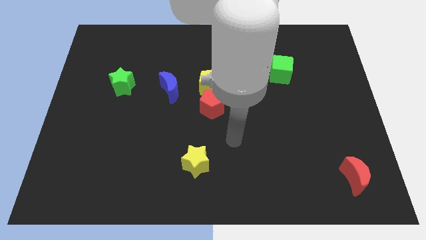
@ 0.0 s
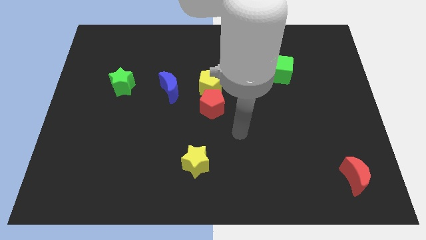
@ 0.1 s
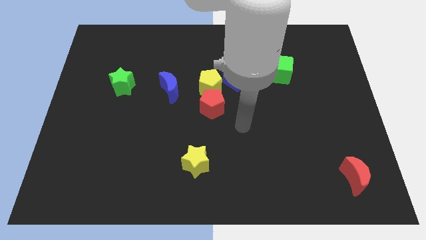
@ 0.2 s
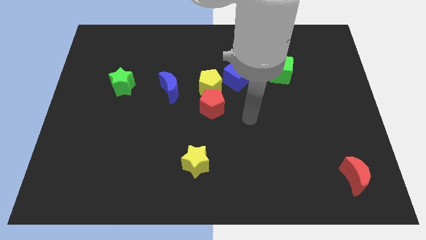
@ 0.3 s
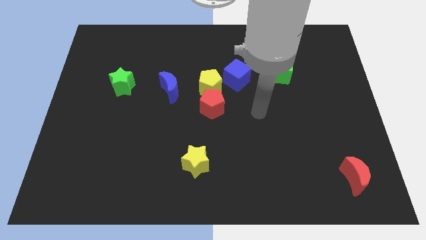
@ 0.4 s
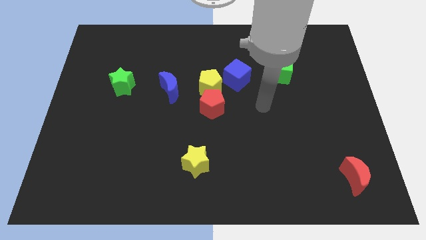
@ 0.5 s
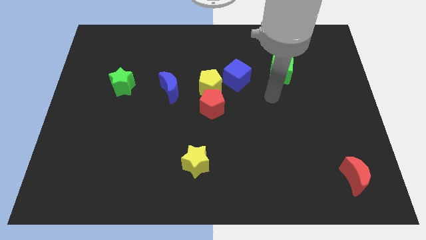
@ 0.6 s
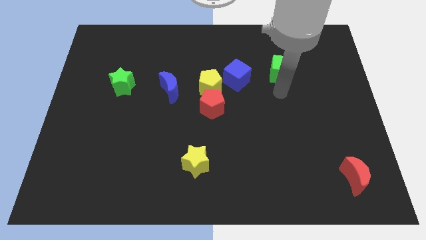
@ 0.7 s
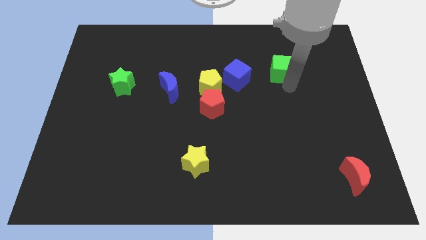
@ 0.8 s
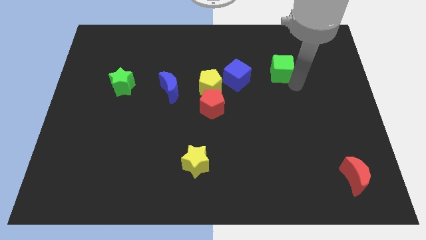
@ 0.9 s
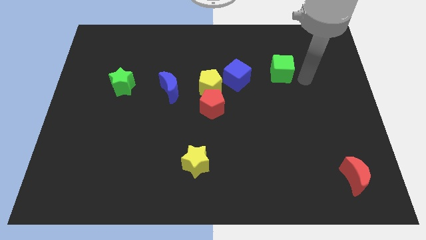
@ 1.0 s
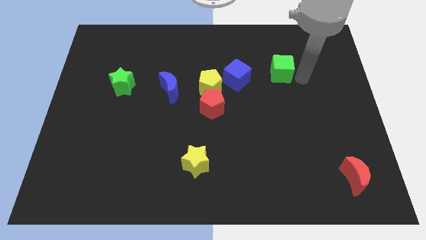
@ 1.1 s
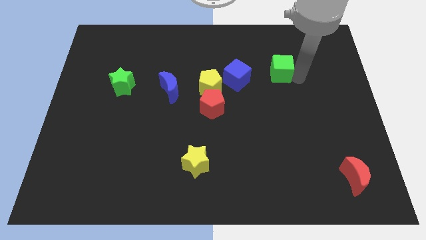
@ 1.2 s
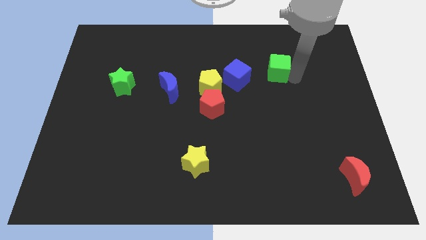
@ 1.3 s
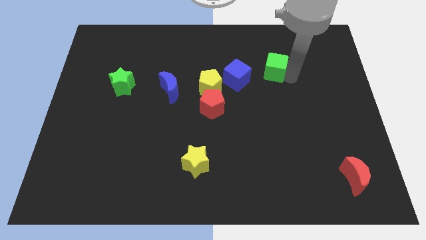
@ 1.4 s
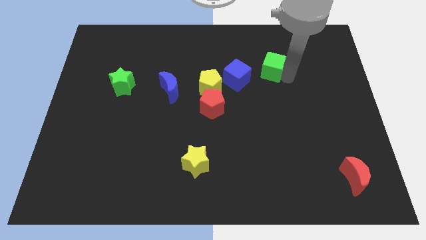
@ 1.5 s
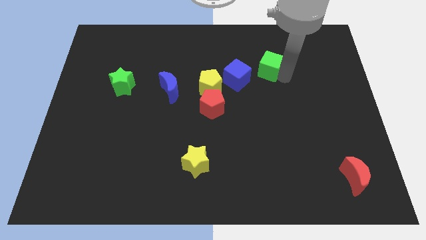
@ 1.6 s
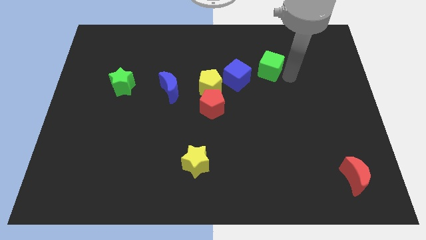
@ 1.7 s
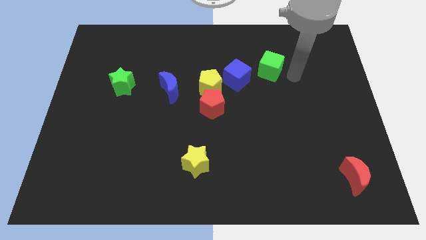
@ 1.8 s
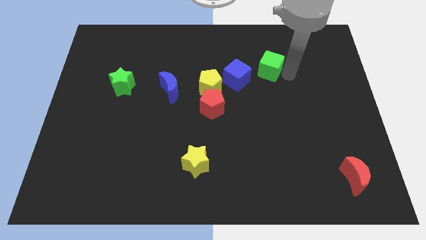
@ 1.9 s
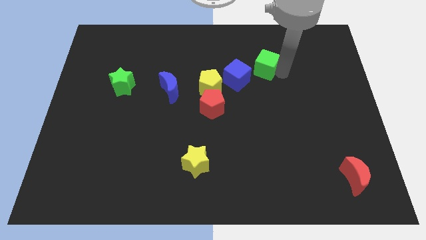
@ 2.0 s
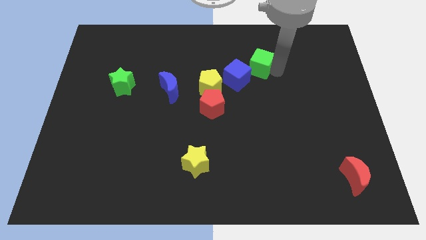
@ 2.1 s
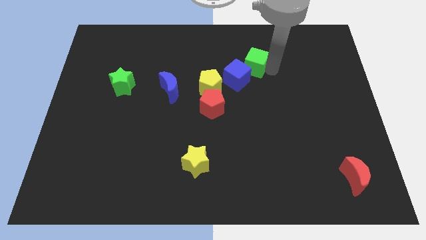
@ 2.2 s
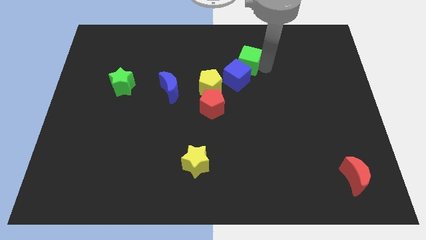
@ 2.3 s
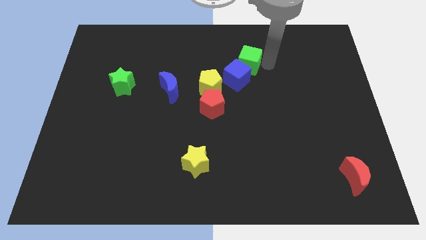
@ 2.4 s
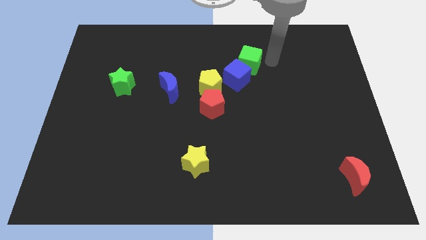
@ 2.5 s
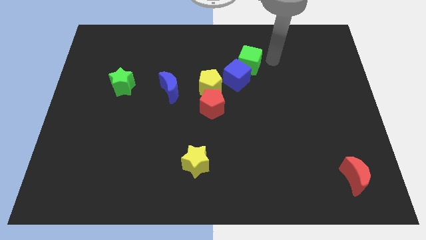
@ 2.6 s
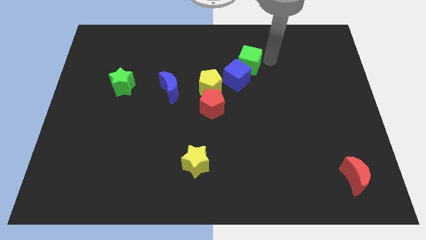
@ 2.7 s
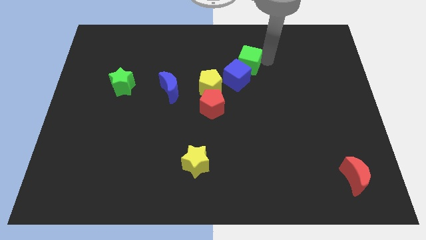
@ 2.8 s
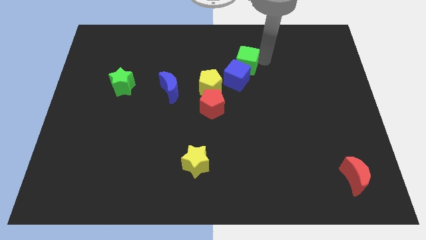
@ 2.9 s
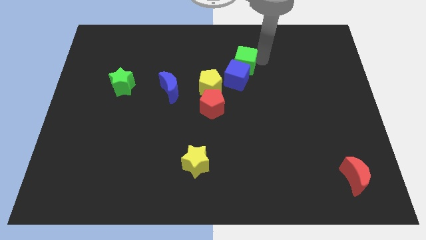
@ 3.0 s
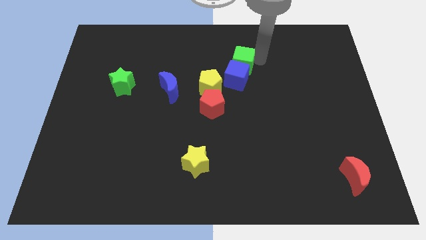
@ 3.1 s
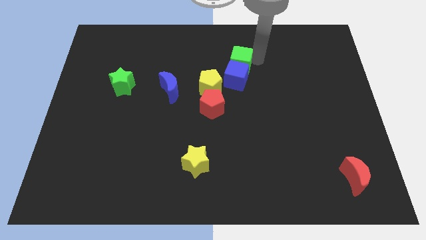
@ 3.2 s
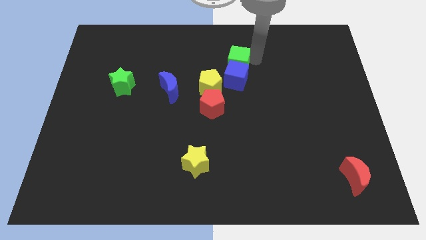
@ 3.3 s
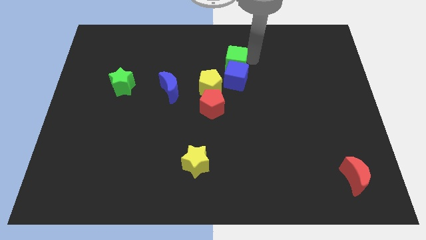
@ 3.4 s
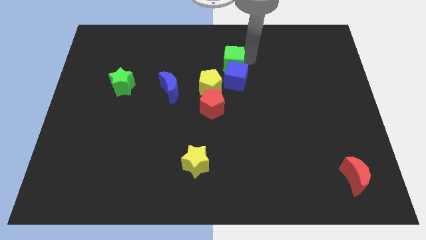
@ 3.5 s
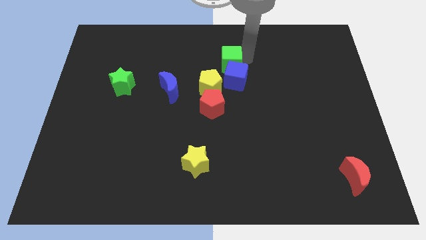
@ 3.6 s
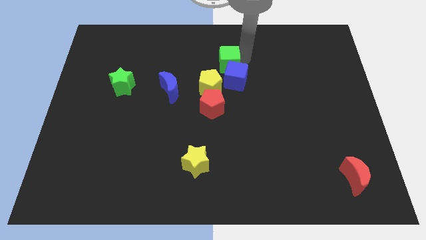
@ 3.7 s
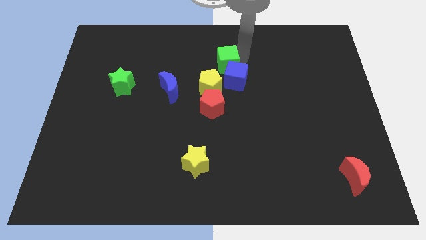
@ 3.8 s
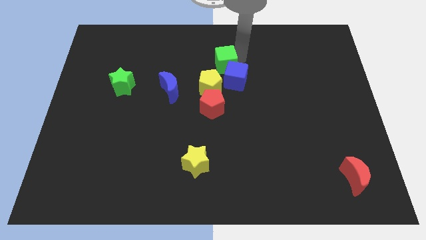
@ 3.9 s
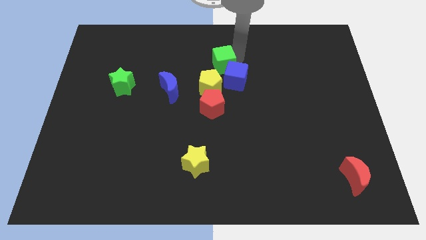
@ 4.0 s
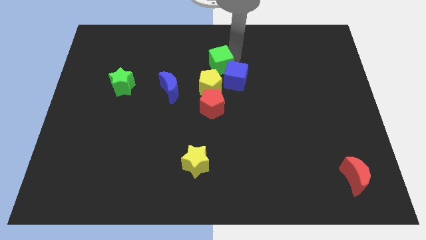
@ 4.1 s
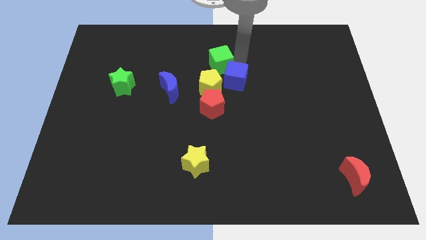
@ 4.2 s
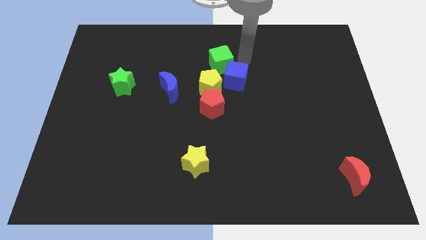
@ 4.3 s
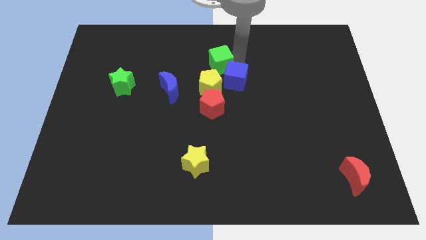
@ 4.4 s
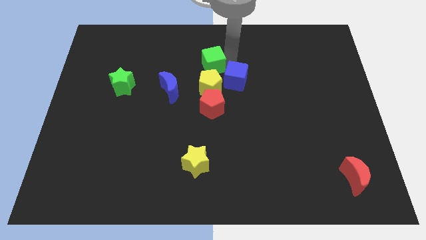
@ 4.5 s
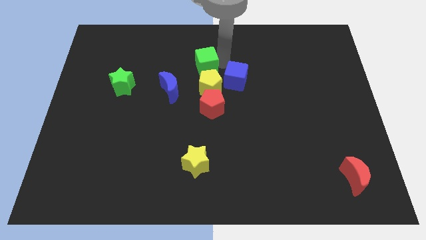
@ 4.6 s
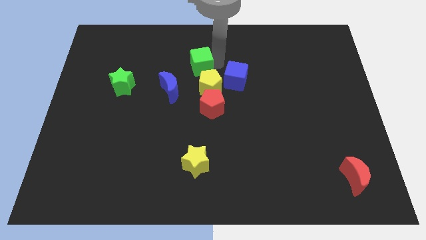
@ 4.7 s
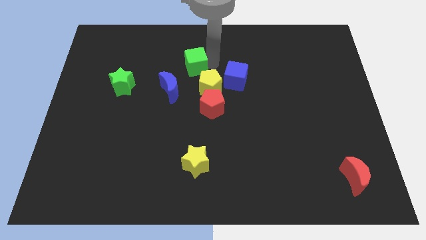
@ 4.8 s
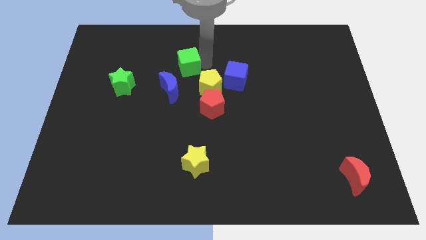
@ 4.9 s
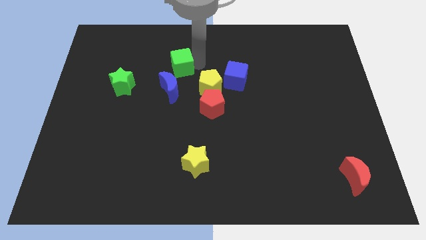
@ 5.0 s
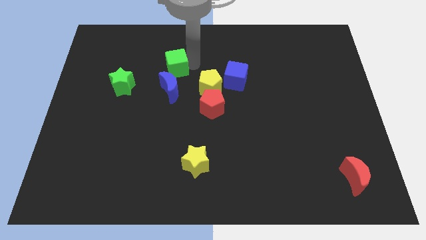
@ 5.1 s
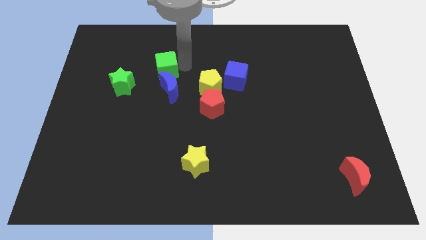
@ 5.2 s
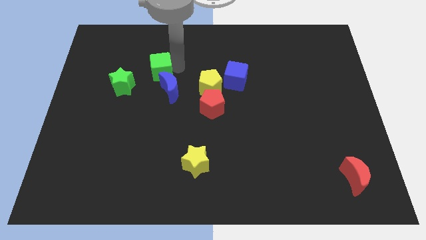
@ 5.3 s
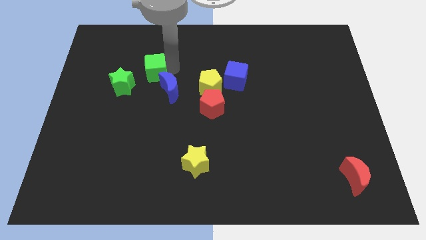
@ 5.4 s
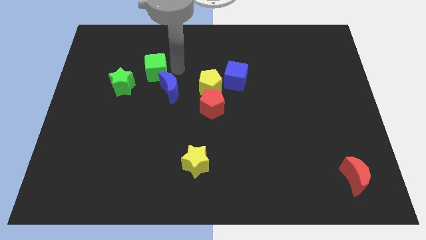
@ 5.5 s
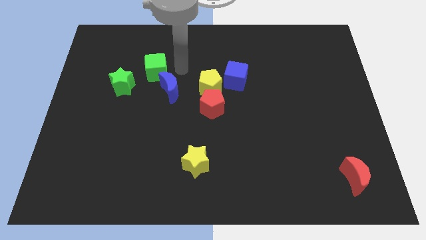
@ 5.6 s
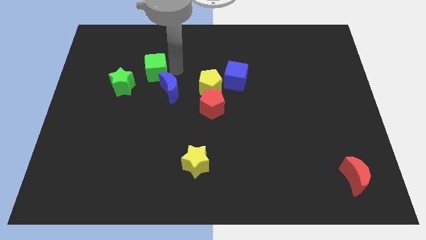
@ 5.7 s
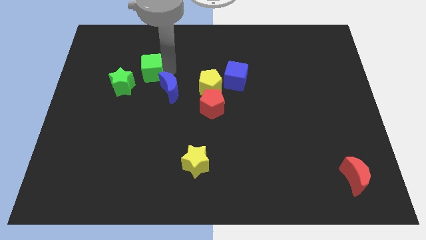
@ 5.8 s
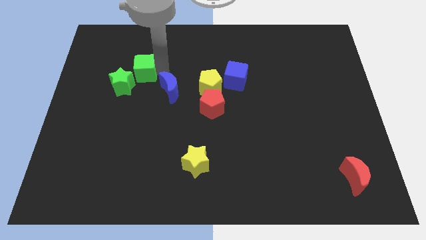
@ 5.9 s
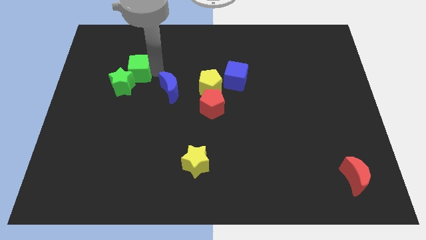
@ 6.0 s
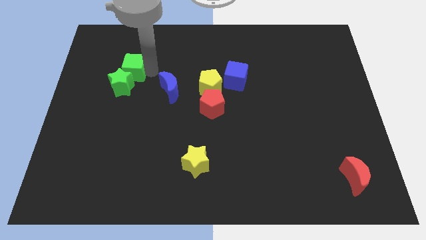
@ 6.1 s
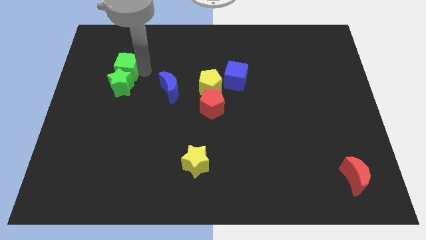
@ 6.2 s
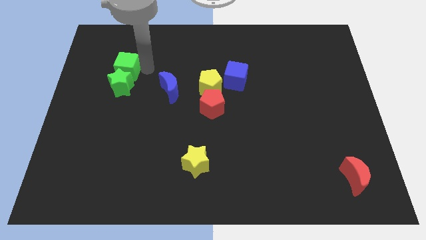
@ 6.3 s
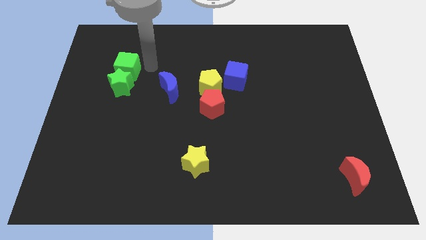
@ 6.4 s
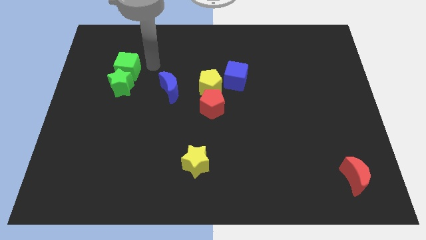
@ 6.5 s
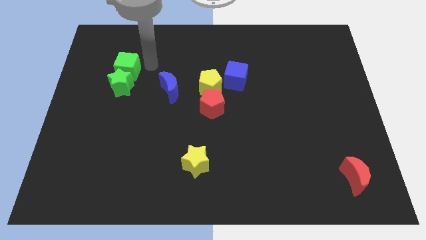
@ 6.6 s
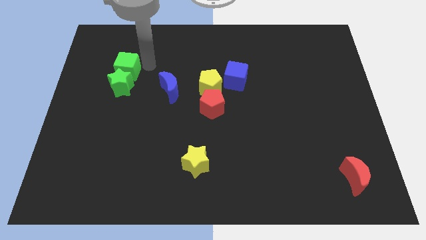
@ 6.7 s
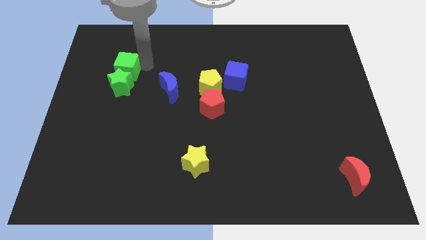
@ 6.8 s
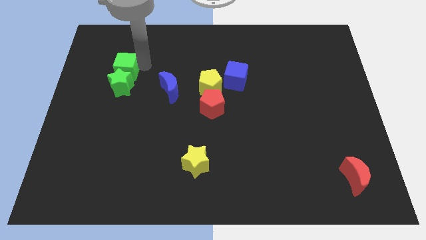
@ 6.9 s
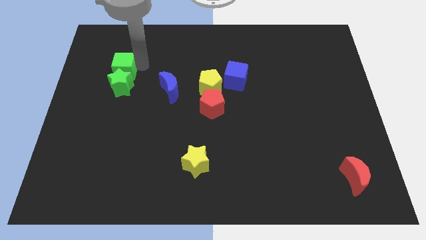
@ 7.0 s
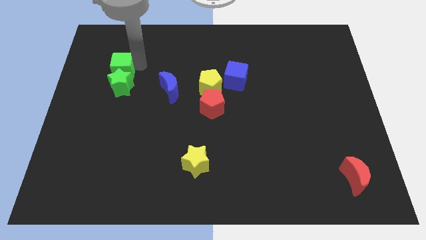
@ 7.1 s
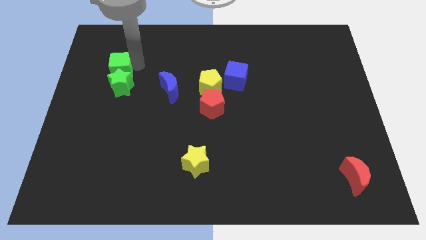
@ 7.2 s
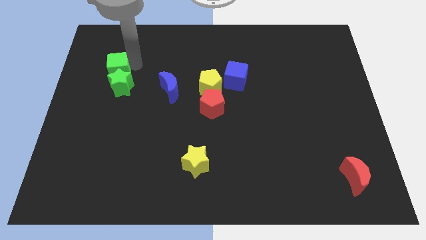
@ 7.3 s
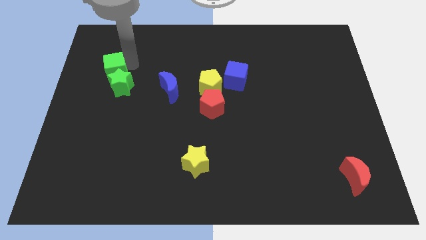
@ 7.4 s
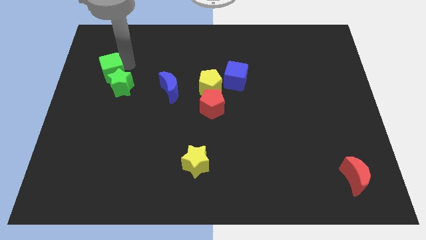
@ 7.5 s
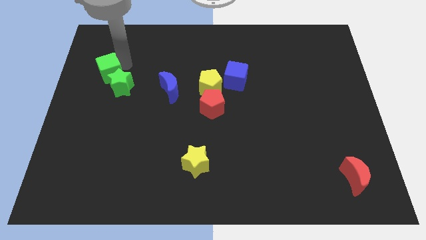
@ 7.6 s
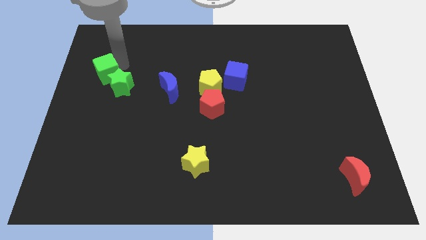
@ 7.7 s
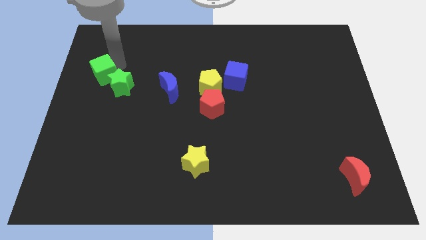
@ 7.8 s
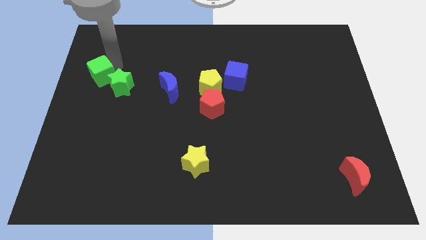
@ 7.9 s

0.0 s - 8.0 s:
slide the green cube to the center left
